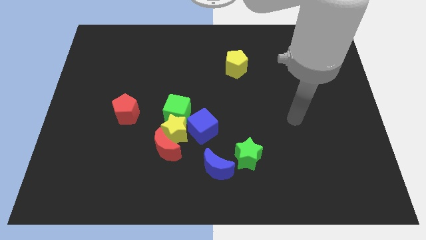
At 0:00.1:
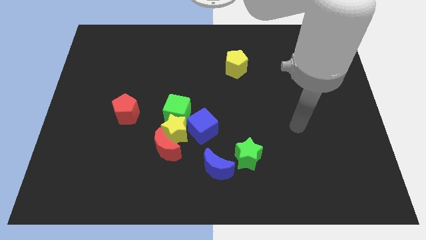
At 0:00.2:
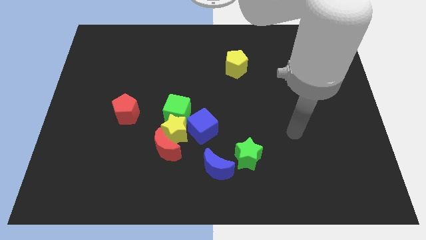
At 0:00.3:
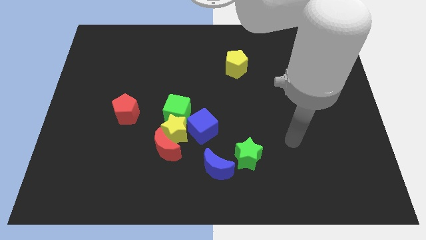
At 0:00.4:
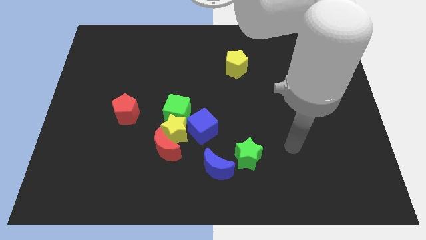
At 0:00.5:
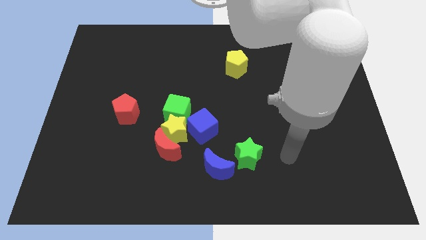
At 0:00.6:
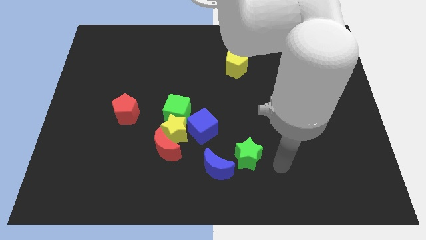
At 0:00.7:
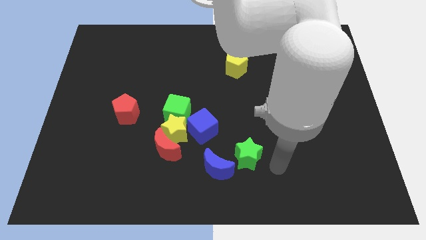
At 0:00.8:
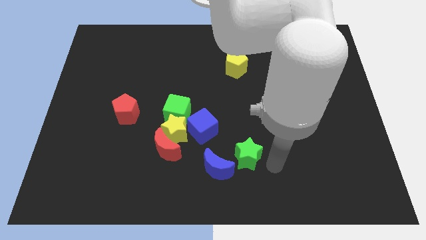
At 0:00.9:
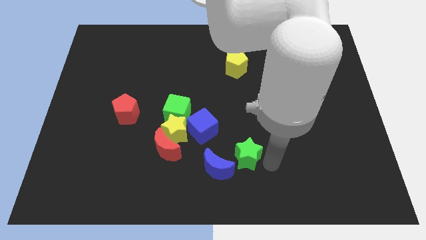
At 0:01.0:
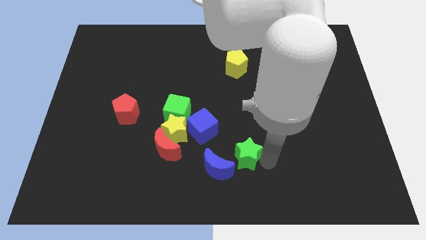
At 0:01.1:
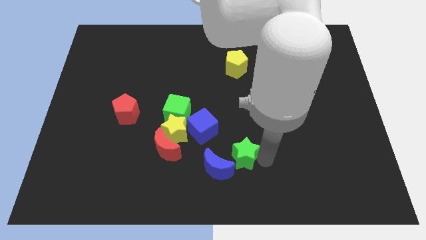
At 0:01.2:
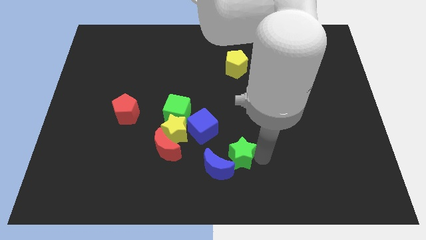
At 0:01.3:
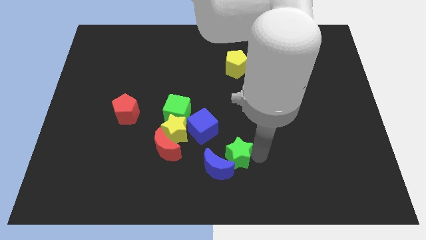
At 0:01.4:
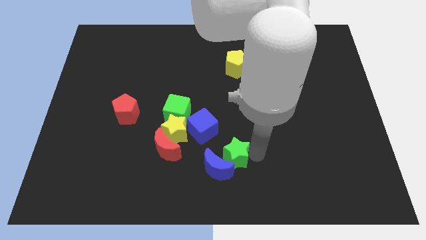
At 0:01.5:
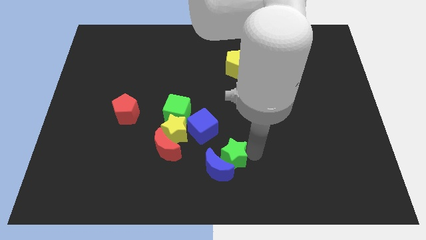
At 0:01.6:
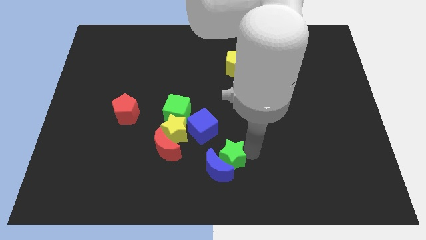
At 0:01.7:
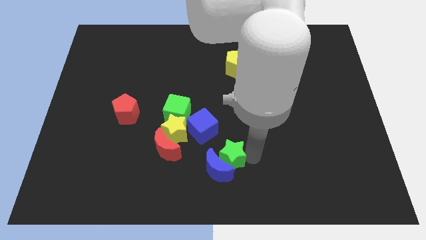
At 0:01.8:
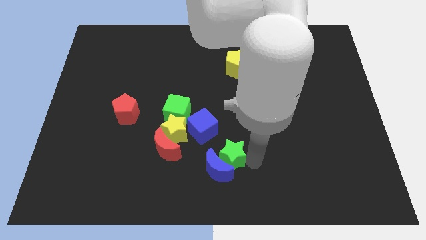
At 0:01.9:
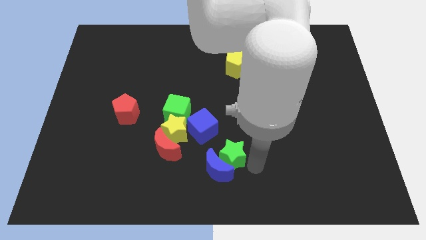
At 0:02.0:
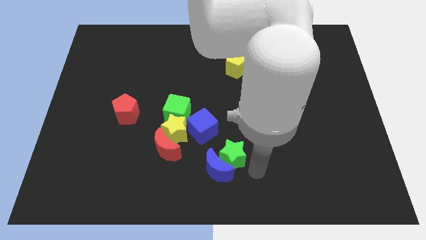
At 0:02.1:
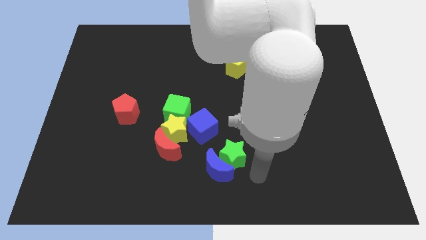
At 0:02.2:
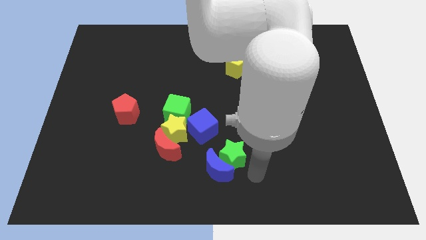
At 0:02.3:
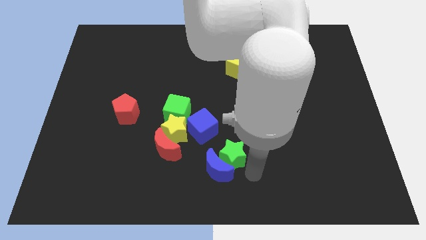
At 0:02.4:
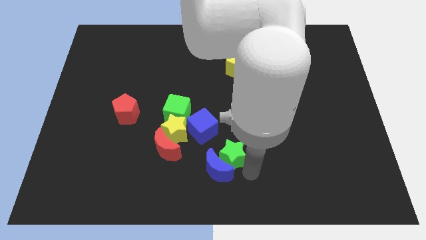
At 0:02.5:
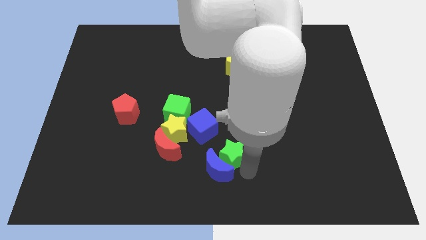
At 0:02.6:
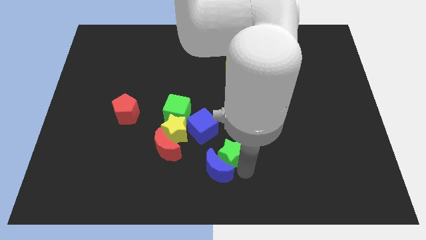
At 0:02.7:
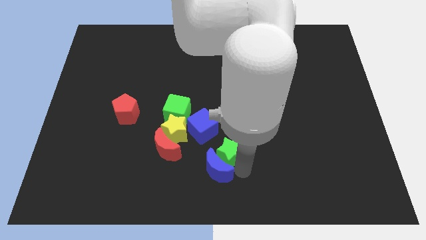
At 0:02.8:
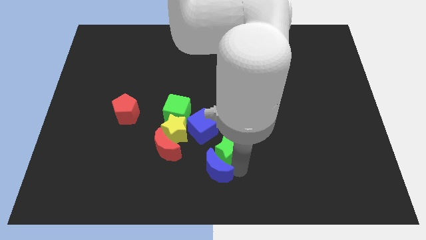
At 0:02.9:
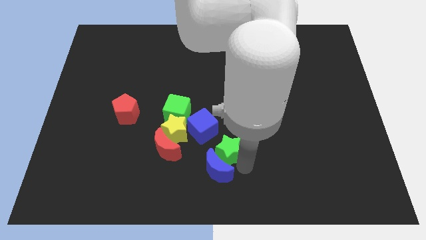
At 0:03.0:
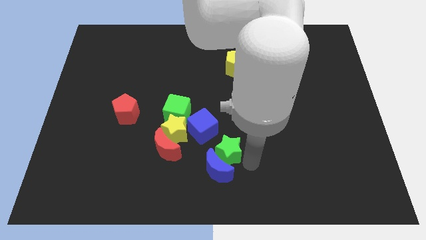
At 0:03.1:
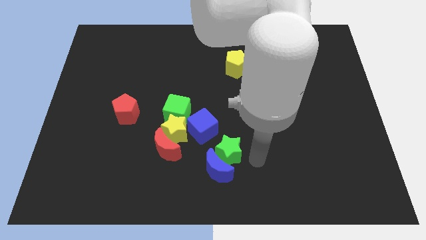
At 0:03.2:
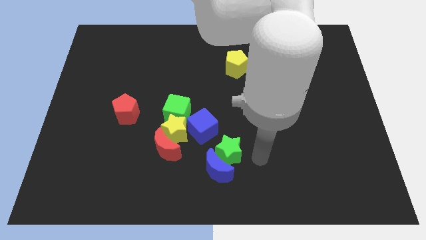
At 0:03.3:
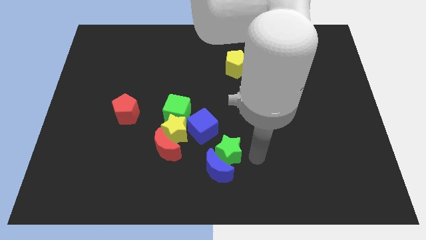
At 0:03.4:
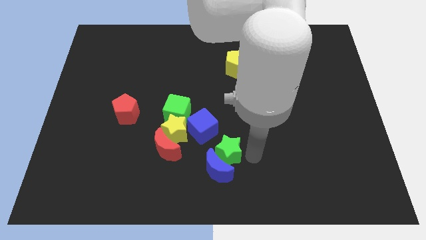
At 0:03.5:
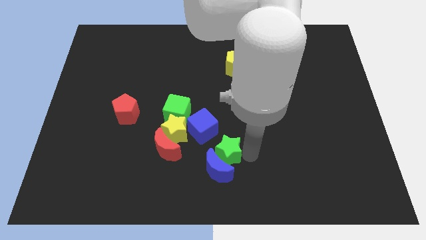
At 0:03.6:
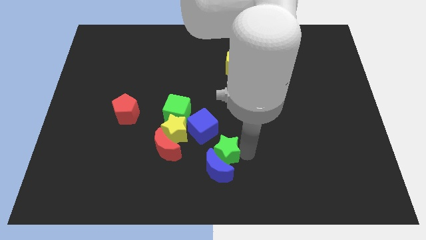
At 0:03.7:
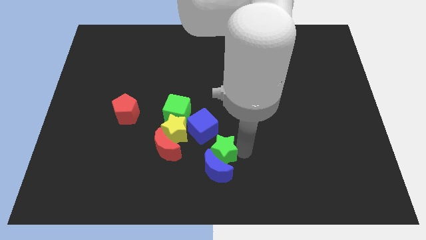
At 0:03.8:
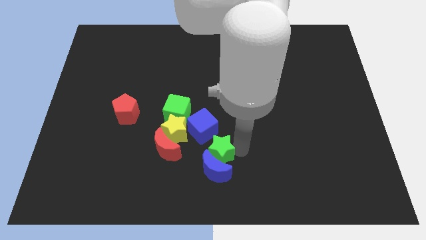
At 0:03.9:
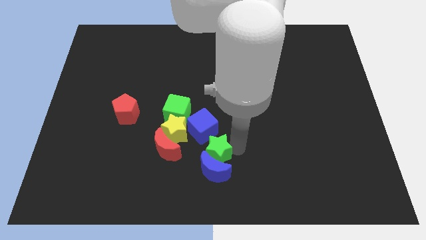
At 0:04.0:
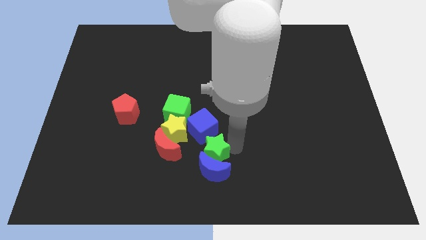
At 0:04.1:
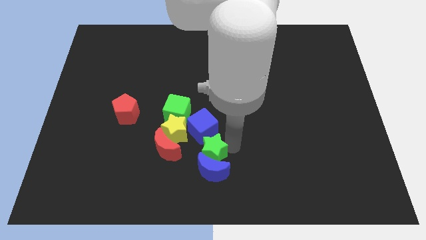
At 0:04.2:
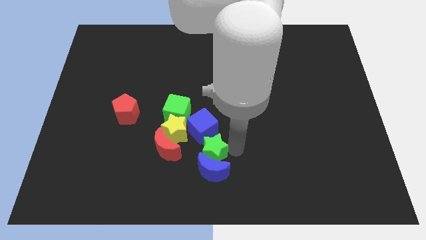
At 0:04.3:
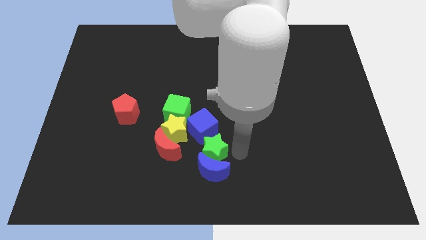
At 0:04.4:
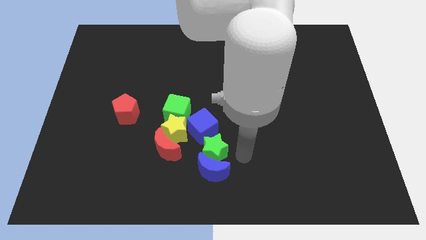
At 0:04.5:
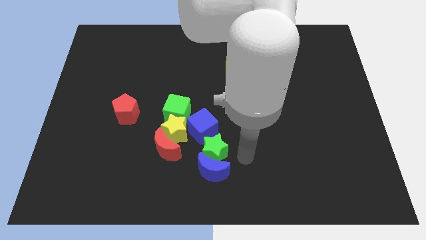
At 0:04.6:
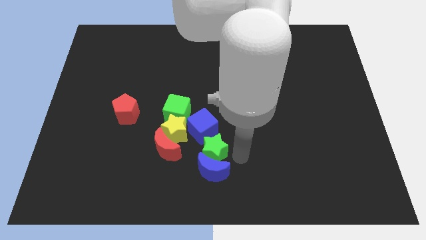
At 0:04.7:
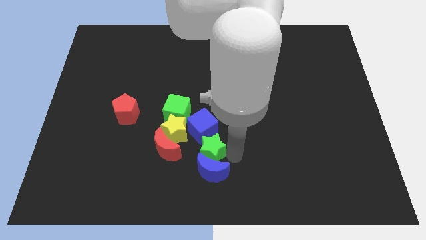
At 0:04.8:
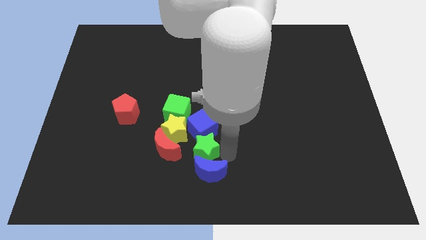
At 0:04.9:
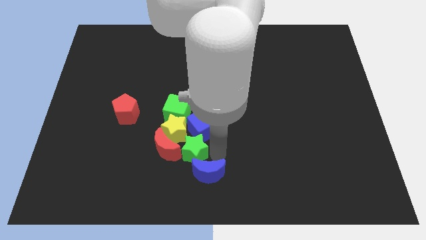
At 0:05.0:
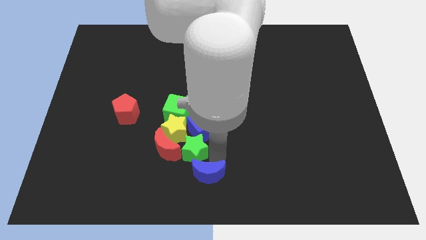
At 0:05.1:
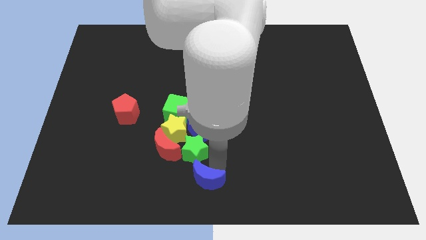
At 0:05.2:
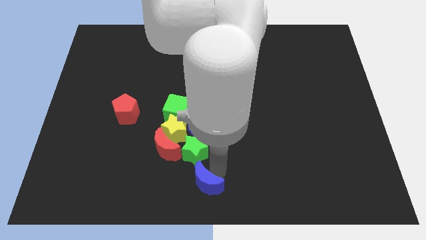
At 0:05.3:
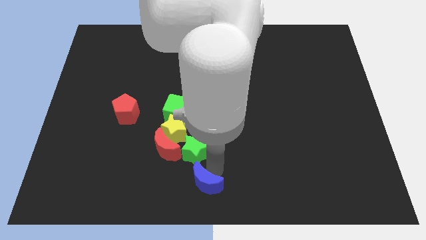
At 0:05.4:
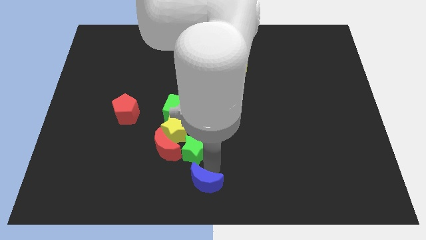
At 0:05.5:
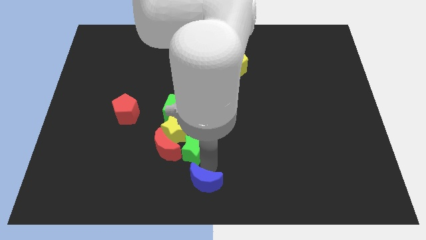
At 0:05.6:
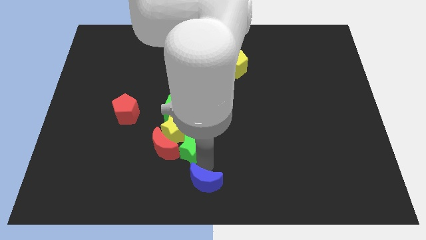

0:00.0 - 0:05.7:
push the green star close to the yellow star

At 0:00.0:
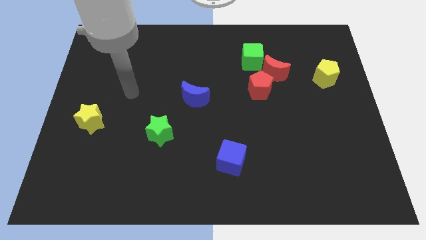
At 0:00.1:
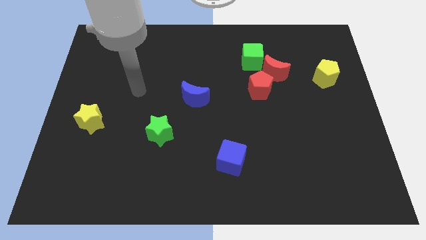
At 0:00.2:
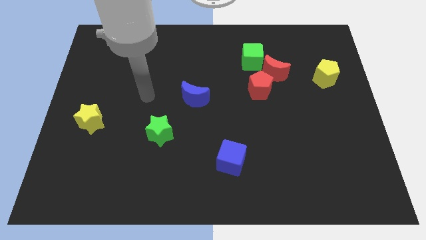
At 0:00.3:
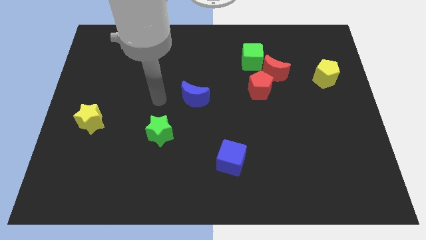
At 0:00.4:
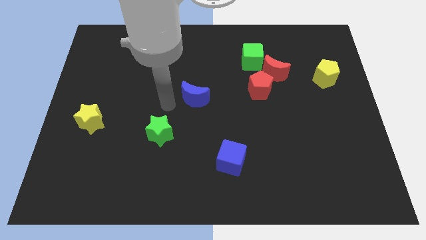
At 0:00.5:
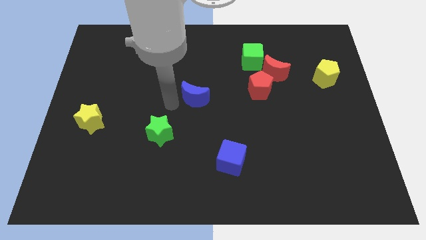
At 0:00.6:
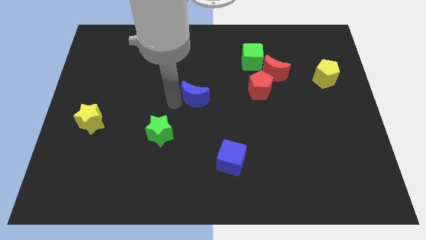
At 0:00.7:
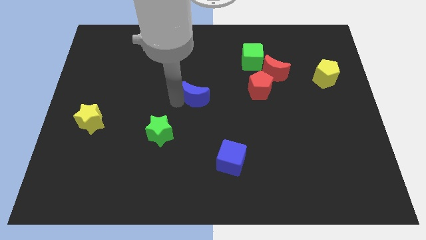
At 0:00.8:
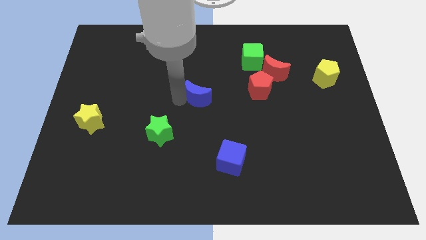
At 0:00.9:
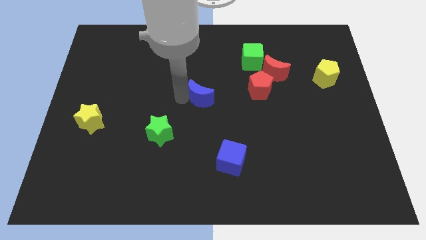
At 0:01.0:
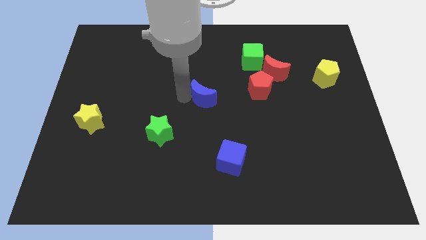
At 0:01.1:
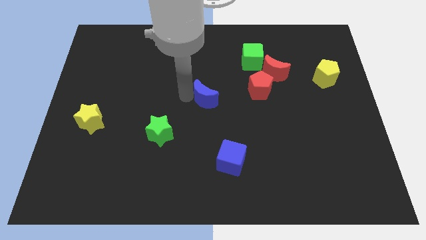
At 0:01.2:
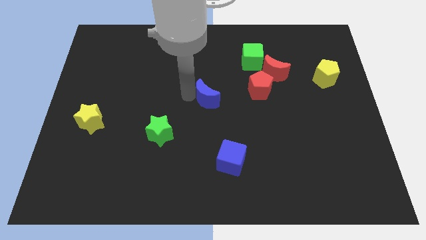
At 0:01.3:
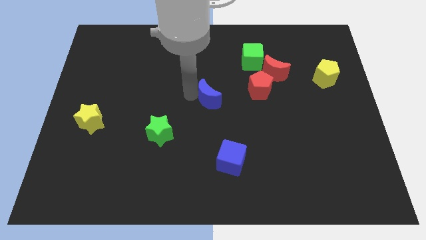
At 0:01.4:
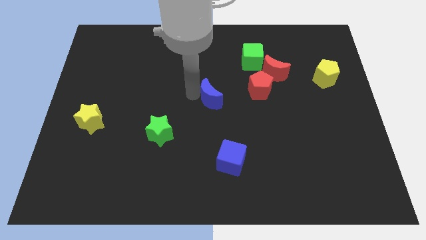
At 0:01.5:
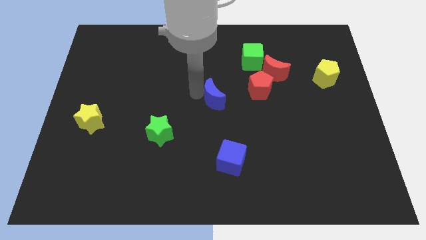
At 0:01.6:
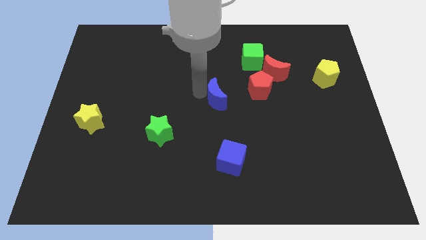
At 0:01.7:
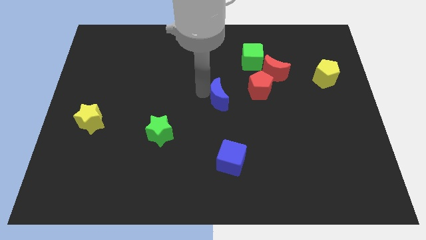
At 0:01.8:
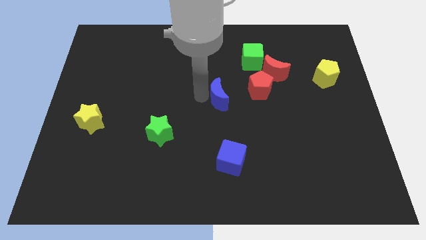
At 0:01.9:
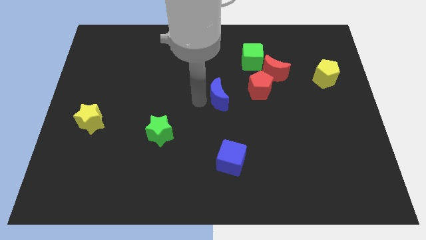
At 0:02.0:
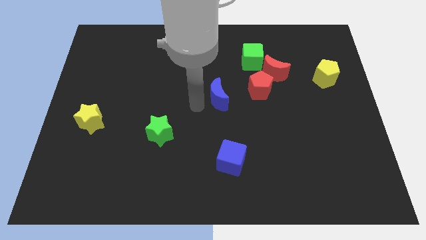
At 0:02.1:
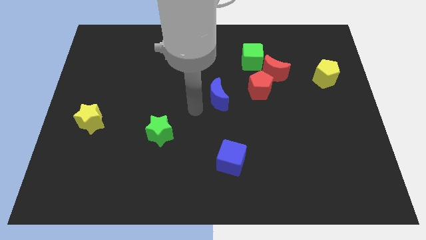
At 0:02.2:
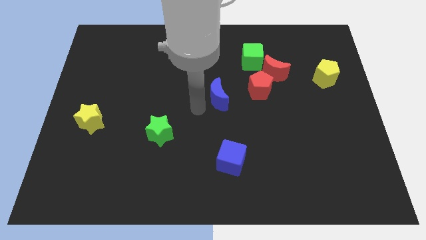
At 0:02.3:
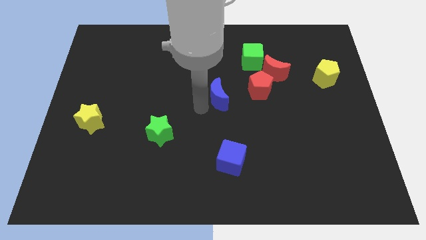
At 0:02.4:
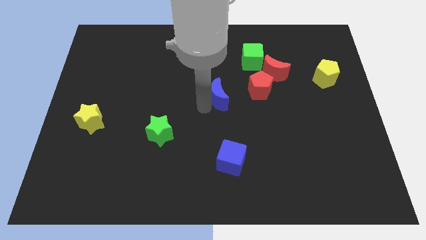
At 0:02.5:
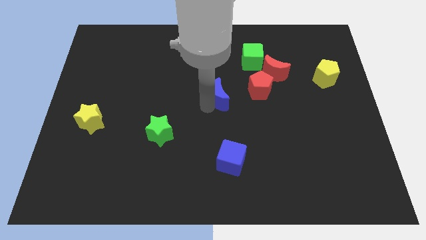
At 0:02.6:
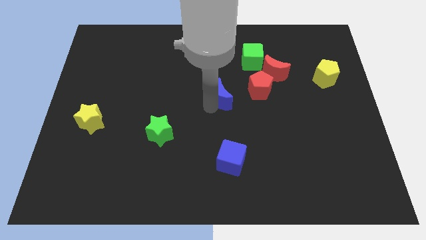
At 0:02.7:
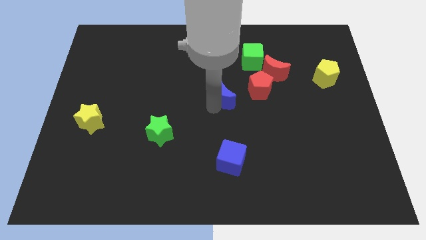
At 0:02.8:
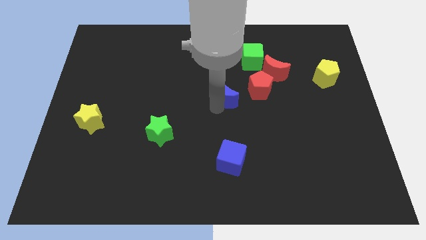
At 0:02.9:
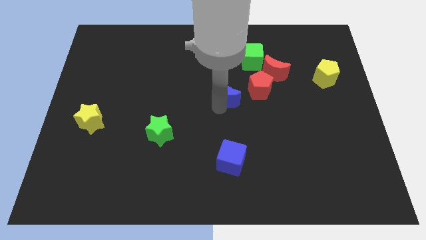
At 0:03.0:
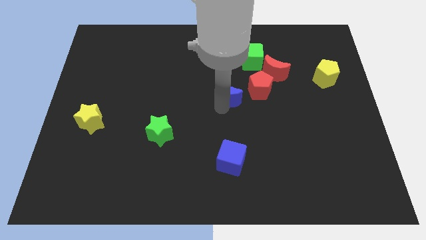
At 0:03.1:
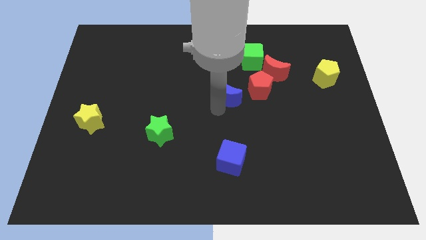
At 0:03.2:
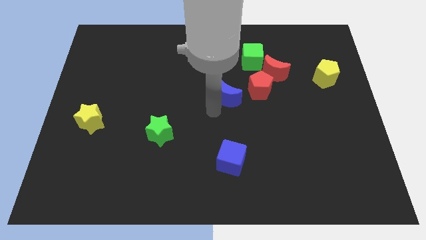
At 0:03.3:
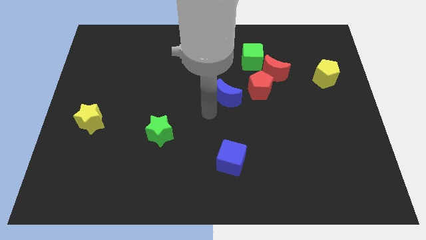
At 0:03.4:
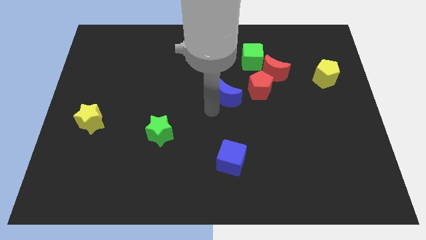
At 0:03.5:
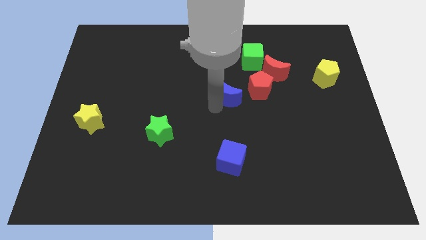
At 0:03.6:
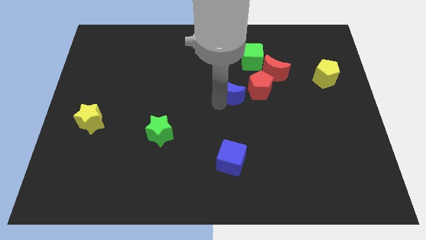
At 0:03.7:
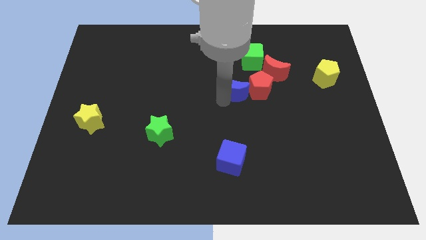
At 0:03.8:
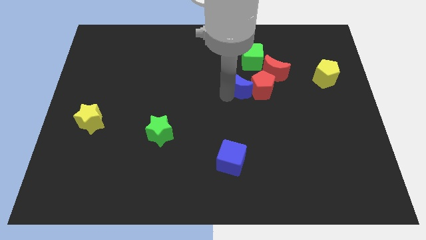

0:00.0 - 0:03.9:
put the blue moon close to the red pentagon
